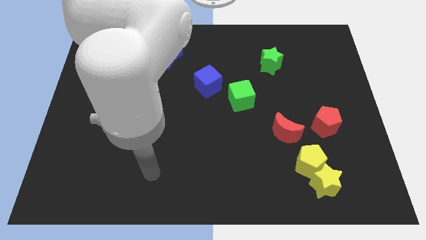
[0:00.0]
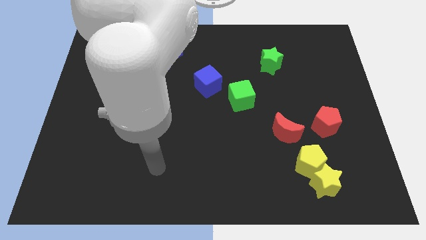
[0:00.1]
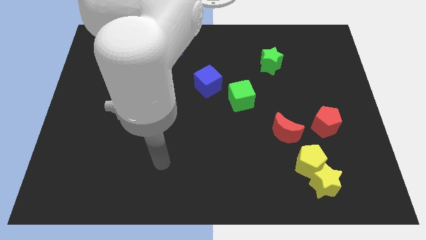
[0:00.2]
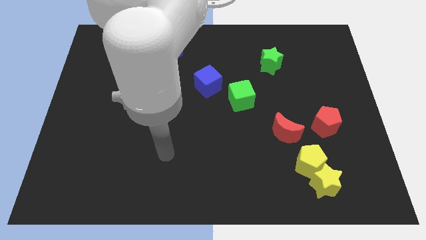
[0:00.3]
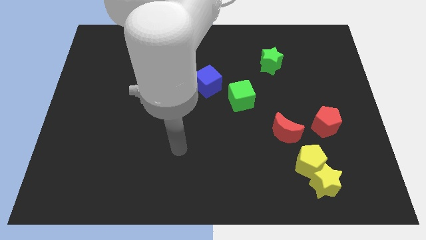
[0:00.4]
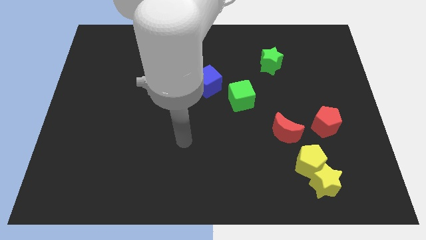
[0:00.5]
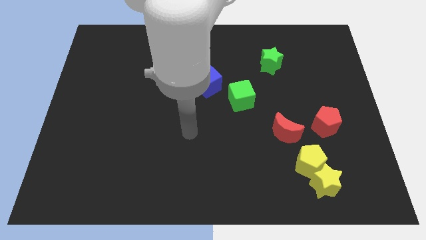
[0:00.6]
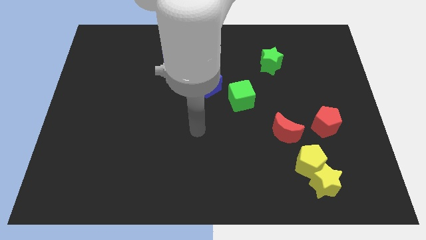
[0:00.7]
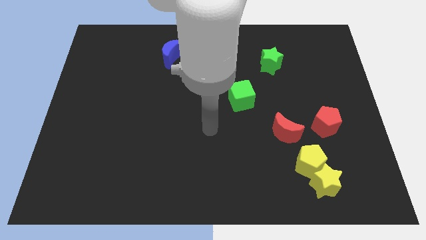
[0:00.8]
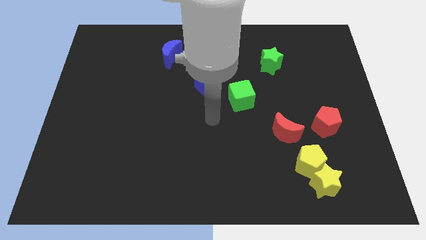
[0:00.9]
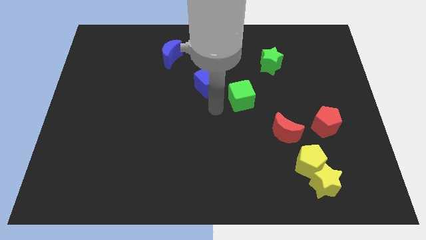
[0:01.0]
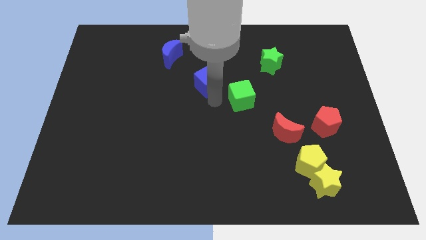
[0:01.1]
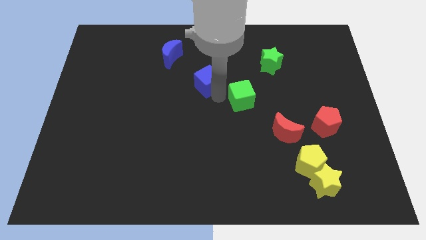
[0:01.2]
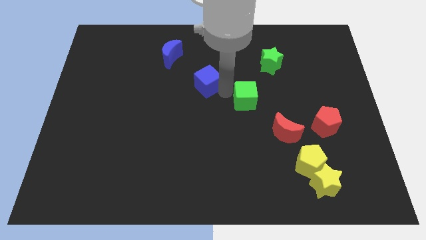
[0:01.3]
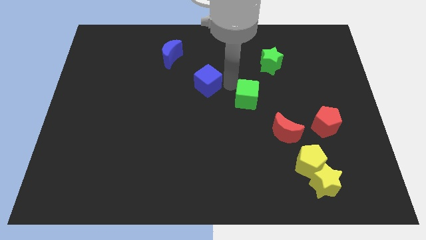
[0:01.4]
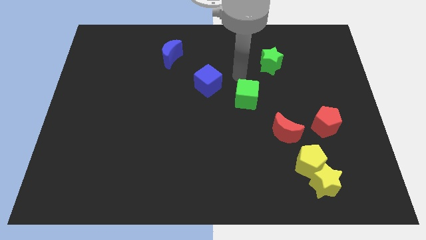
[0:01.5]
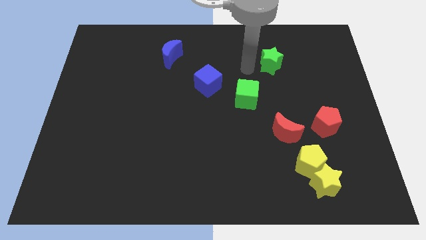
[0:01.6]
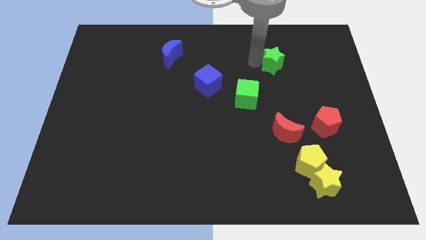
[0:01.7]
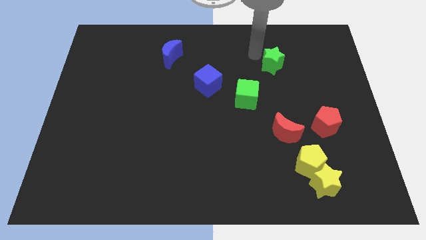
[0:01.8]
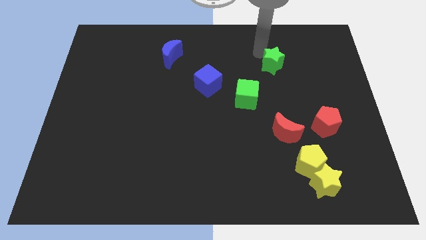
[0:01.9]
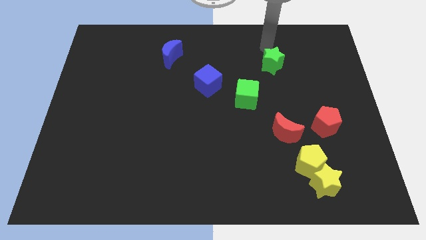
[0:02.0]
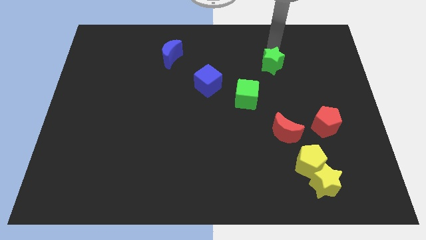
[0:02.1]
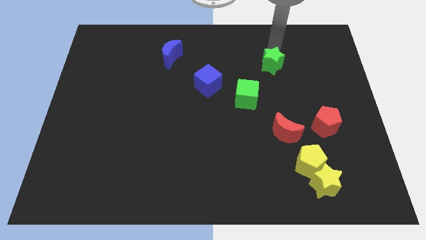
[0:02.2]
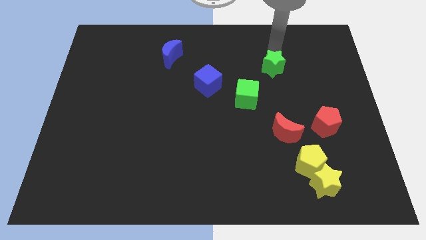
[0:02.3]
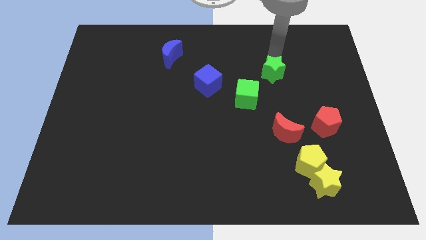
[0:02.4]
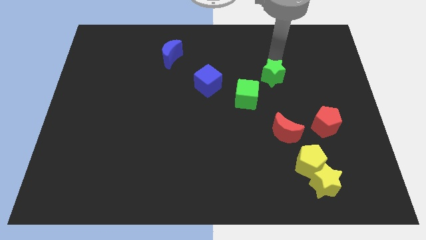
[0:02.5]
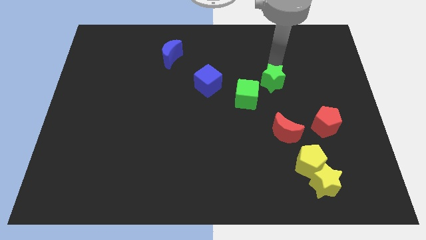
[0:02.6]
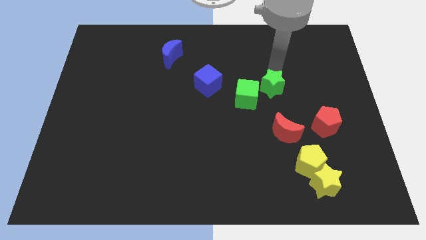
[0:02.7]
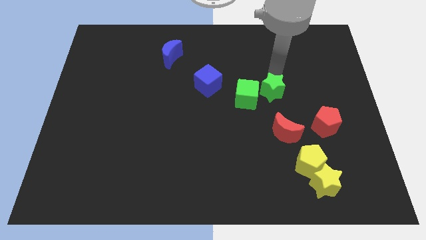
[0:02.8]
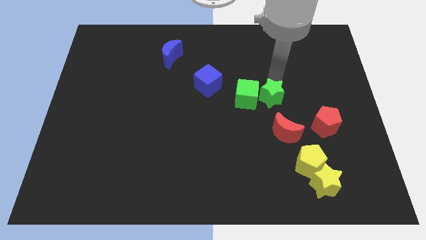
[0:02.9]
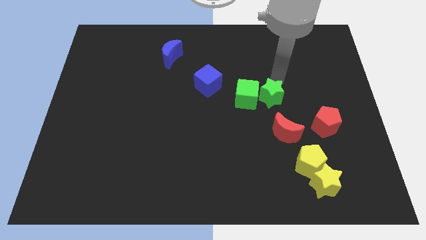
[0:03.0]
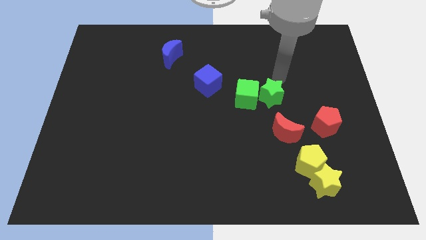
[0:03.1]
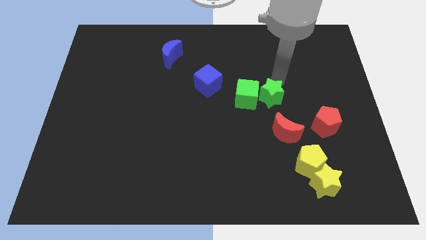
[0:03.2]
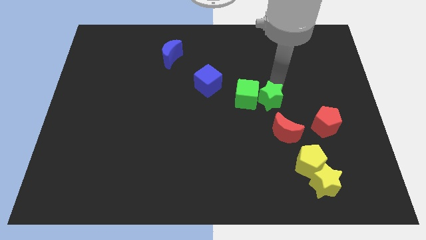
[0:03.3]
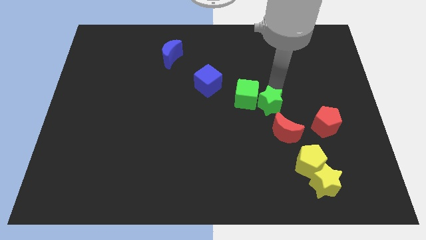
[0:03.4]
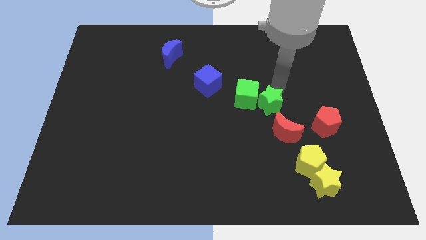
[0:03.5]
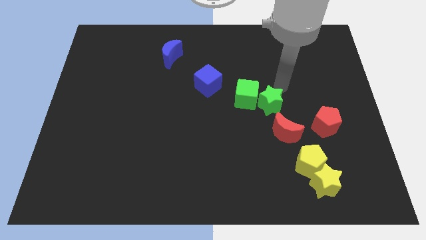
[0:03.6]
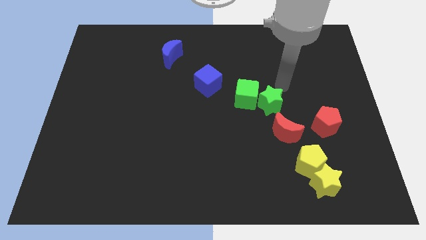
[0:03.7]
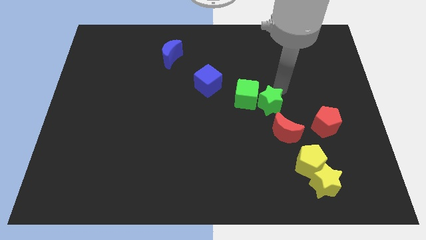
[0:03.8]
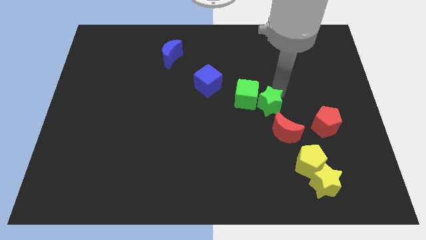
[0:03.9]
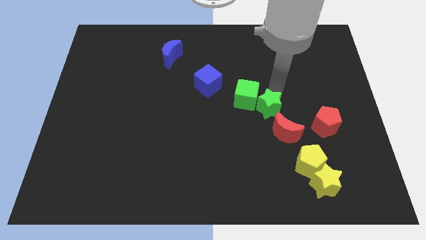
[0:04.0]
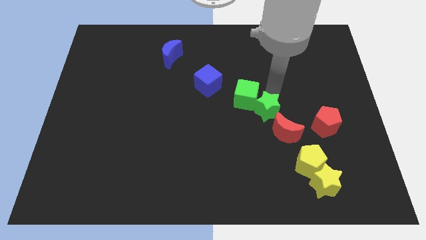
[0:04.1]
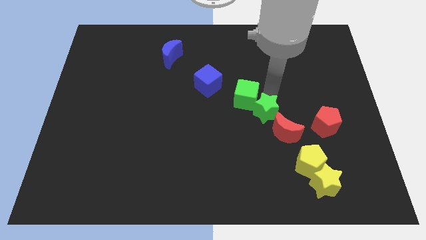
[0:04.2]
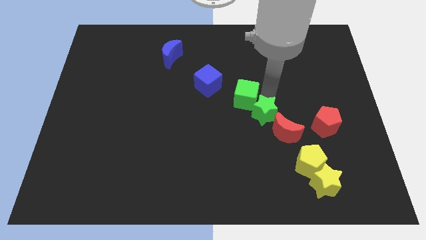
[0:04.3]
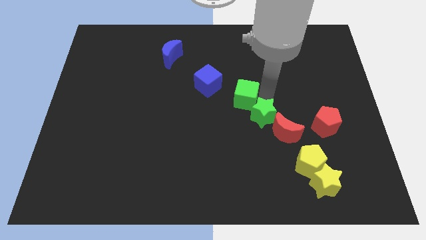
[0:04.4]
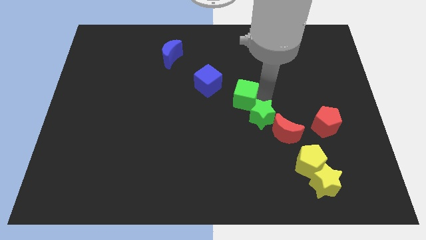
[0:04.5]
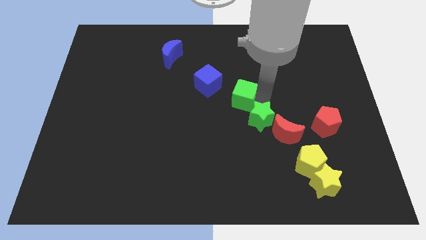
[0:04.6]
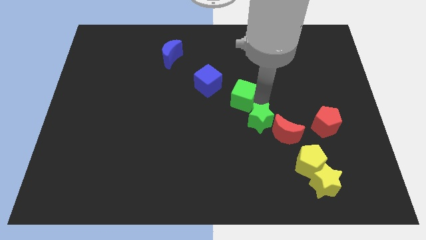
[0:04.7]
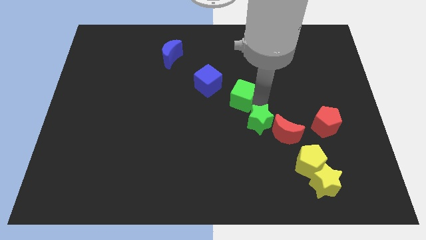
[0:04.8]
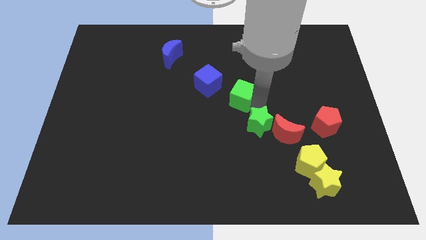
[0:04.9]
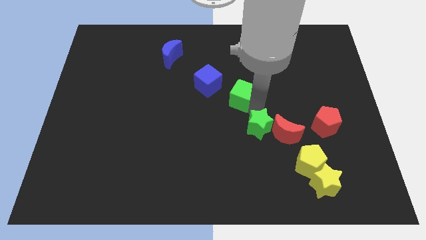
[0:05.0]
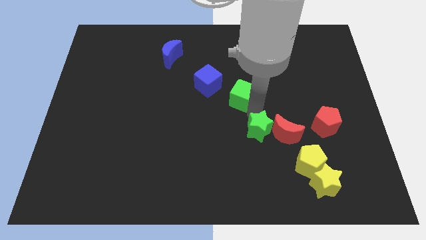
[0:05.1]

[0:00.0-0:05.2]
slide the green star to the bottom left side of the red moon

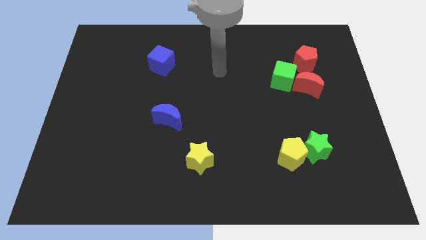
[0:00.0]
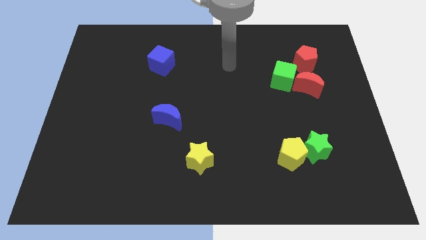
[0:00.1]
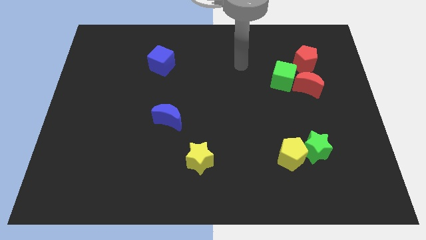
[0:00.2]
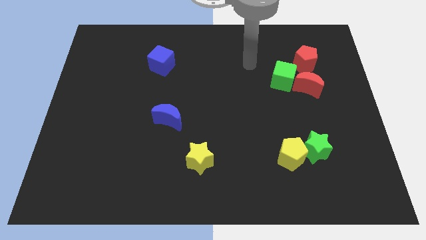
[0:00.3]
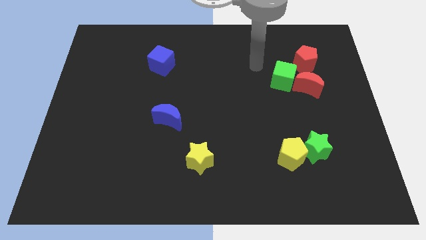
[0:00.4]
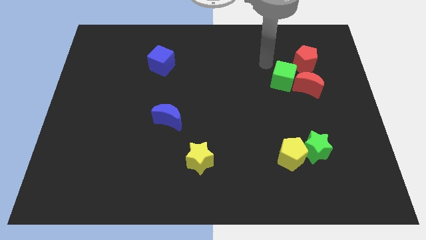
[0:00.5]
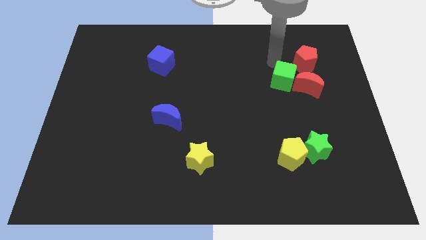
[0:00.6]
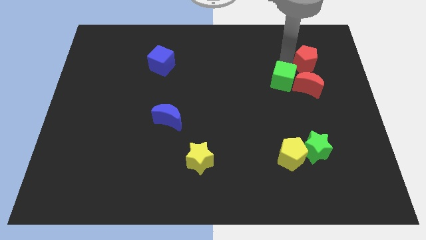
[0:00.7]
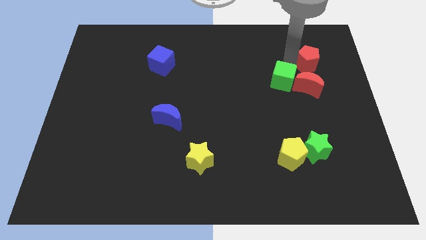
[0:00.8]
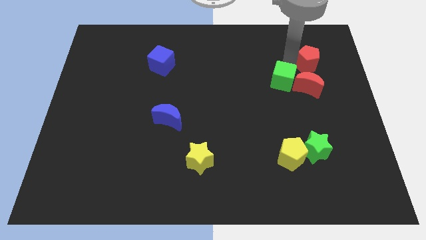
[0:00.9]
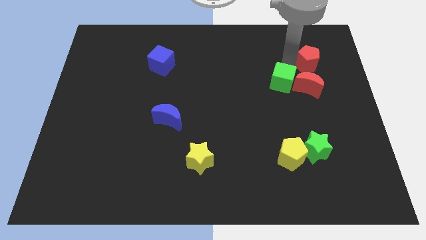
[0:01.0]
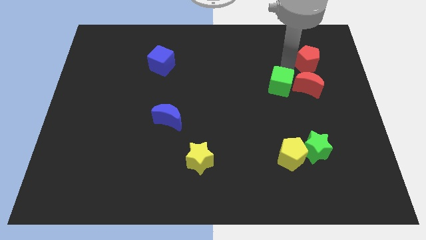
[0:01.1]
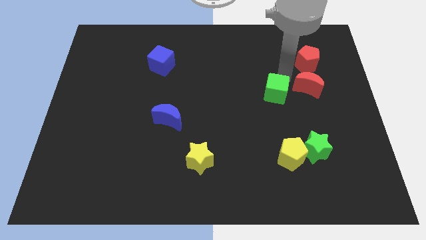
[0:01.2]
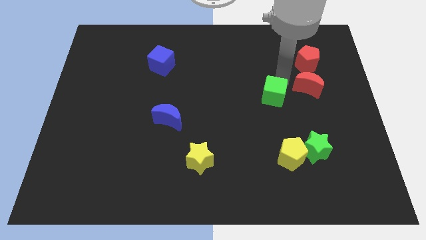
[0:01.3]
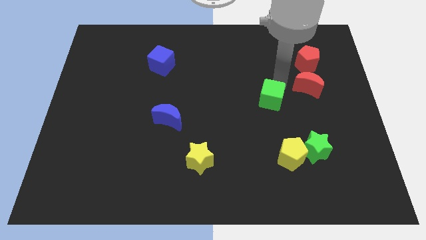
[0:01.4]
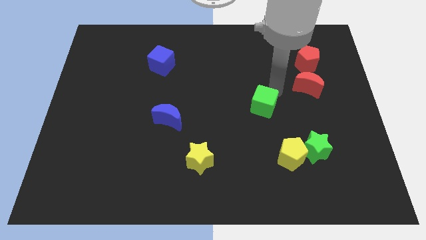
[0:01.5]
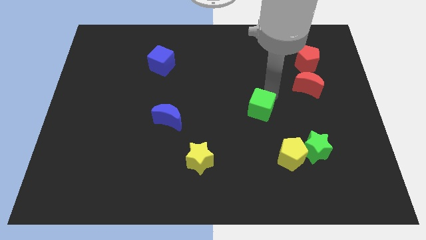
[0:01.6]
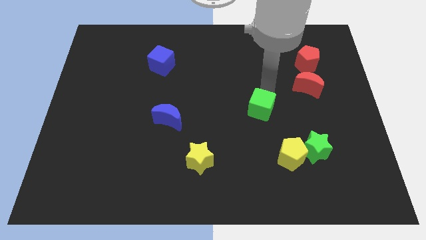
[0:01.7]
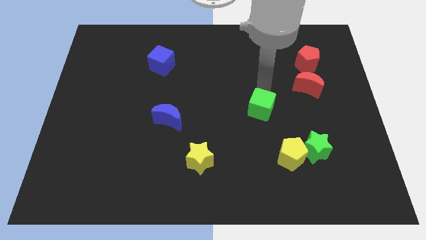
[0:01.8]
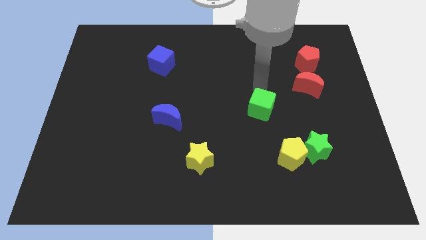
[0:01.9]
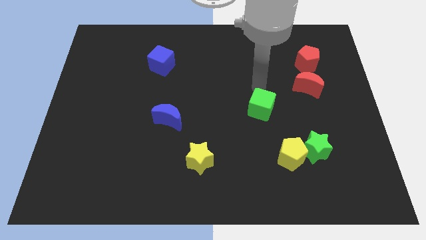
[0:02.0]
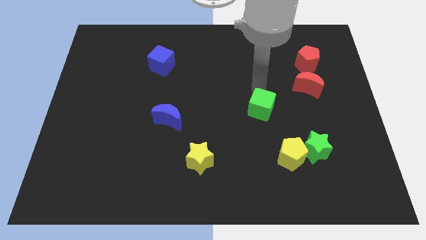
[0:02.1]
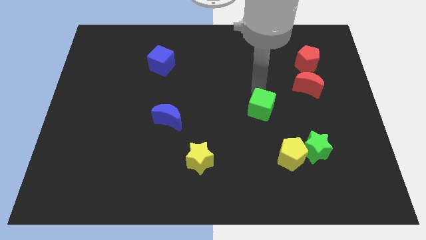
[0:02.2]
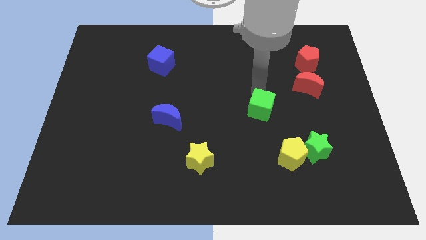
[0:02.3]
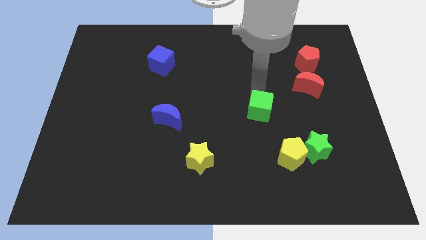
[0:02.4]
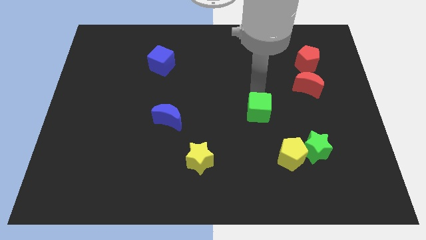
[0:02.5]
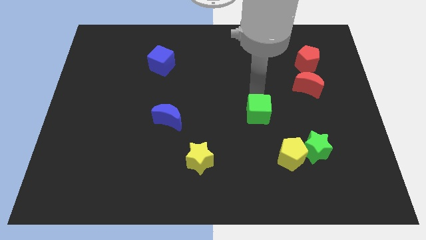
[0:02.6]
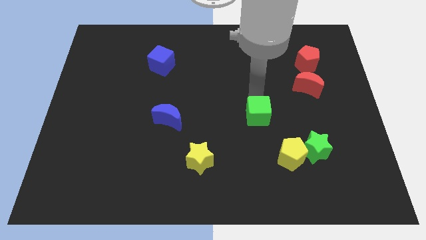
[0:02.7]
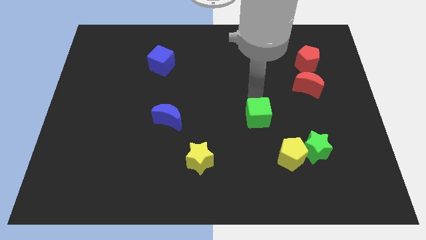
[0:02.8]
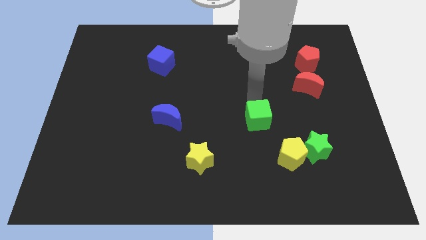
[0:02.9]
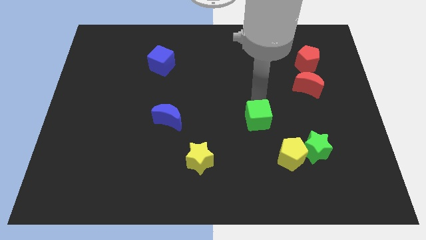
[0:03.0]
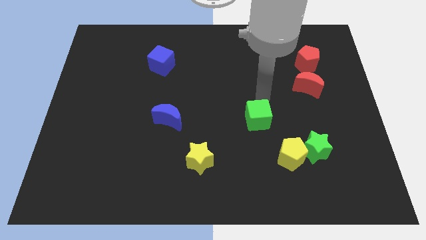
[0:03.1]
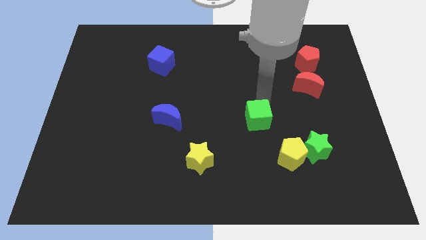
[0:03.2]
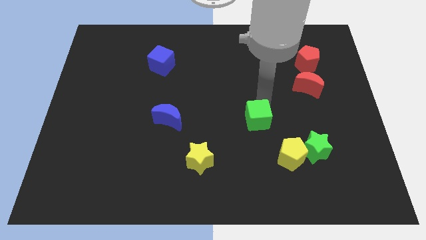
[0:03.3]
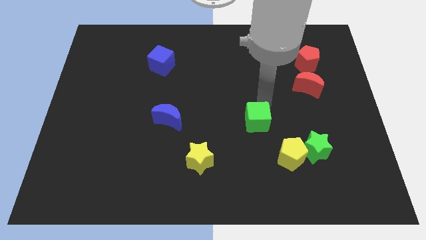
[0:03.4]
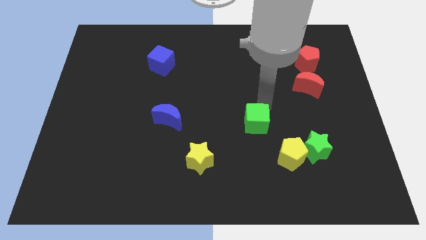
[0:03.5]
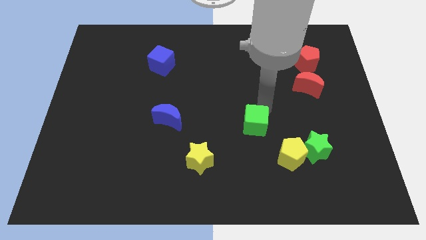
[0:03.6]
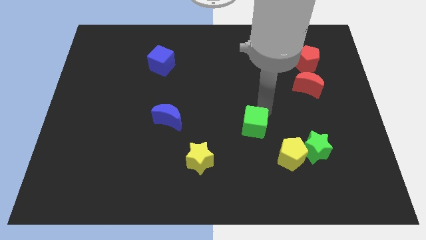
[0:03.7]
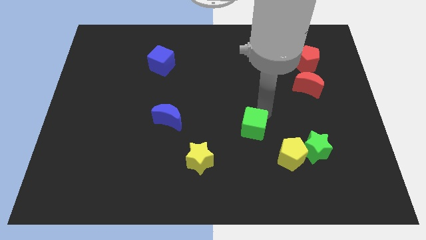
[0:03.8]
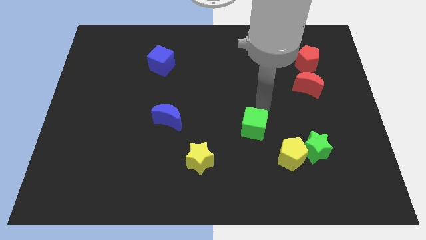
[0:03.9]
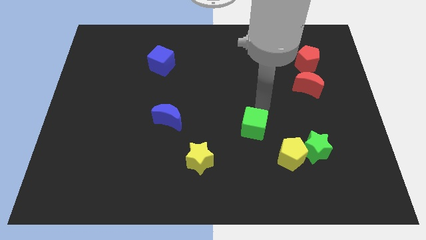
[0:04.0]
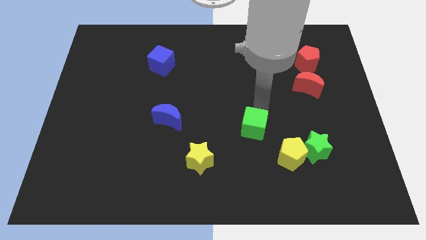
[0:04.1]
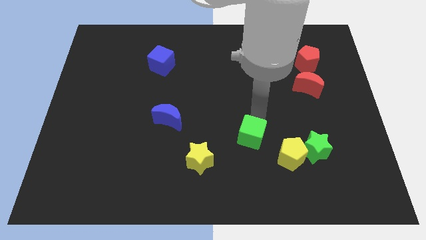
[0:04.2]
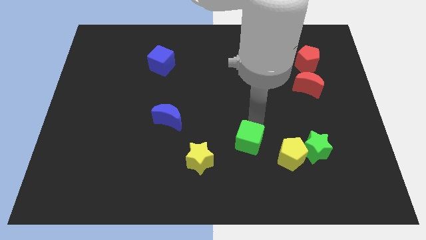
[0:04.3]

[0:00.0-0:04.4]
push the green cube left of the yellow pentagon
